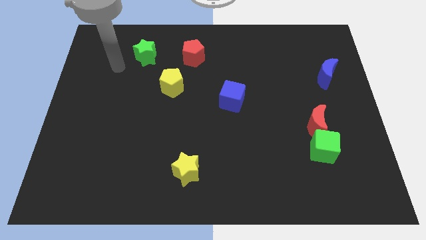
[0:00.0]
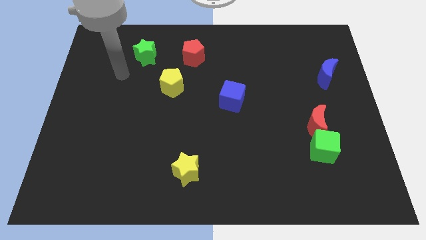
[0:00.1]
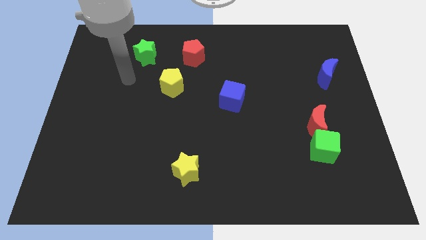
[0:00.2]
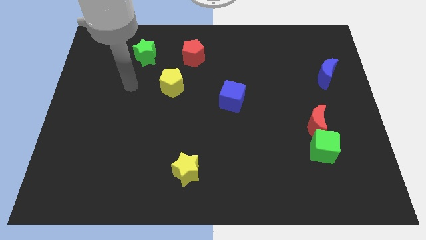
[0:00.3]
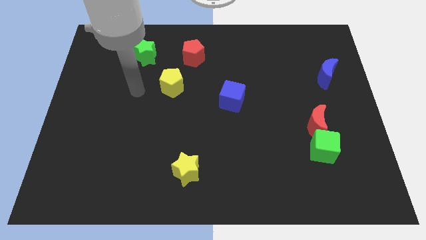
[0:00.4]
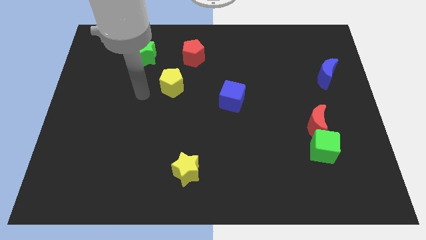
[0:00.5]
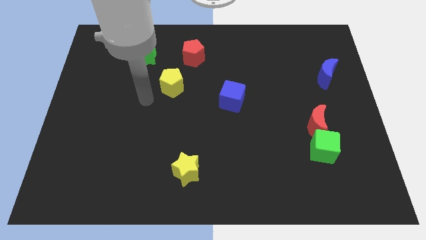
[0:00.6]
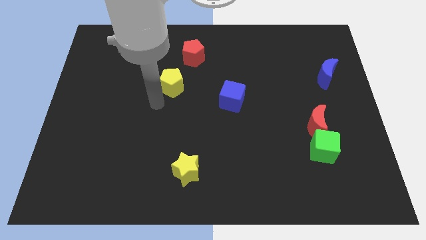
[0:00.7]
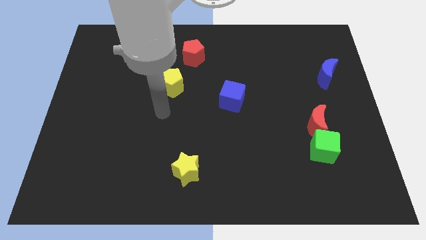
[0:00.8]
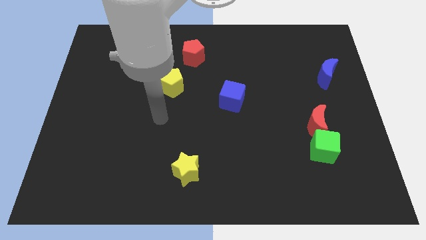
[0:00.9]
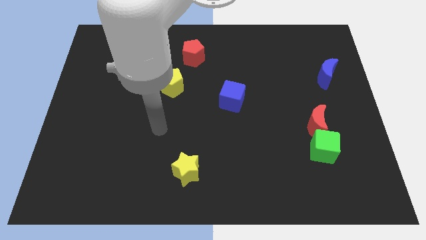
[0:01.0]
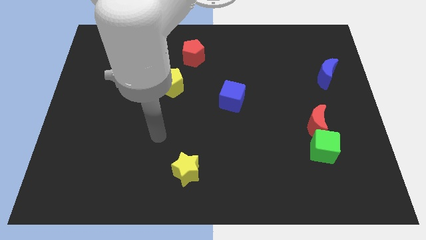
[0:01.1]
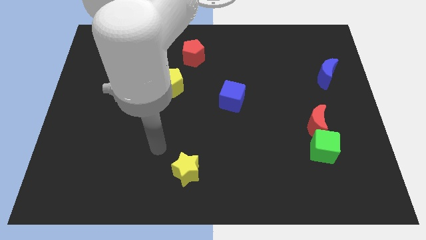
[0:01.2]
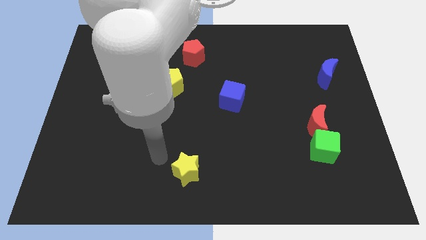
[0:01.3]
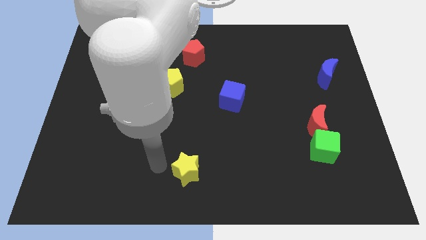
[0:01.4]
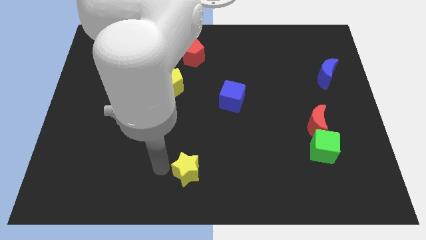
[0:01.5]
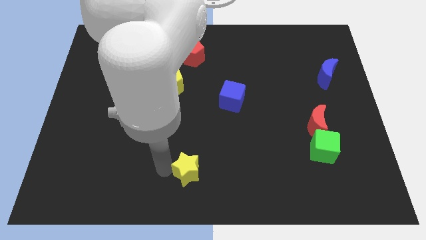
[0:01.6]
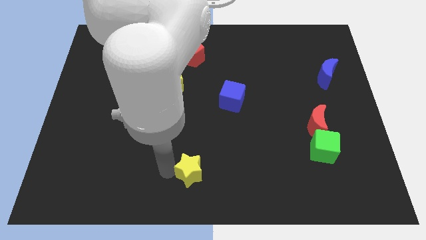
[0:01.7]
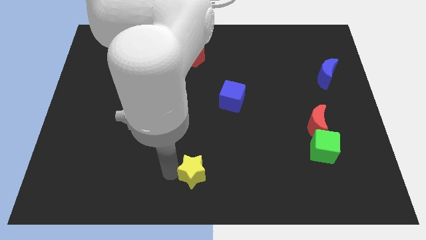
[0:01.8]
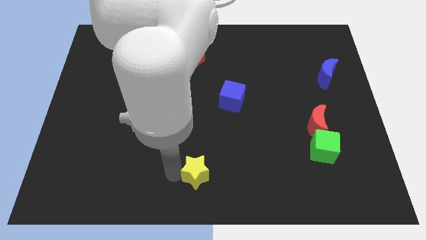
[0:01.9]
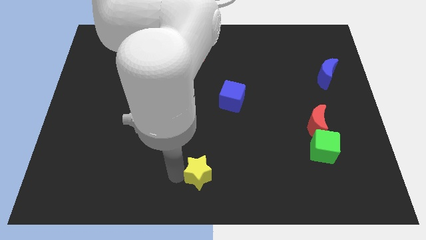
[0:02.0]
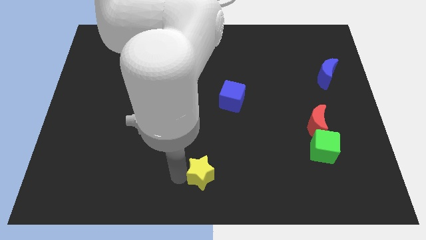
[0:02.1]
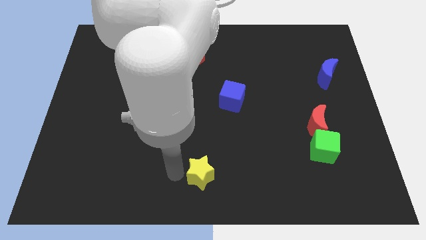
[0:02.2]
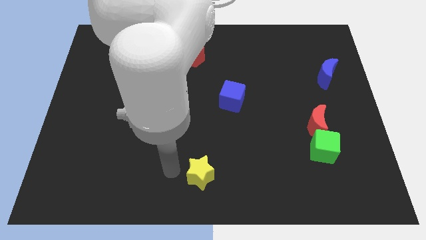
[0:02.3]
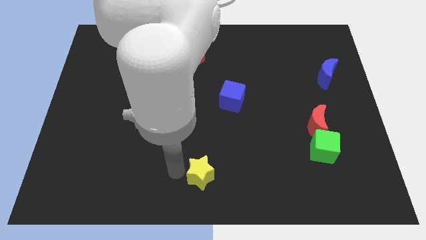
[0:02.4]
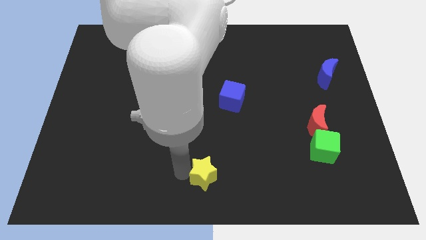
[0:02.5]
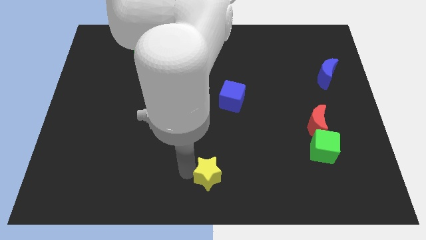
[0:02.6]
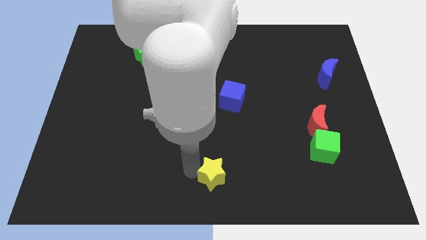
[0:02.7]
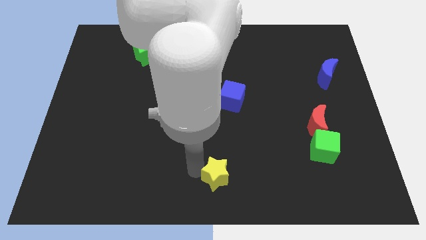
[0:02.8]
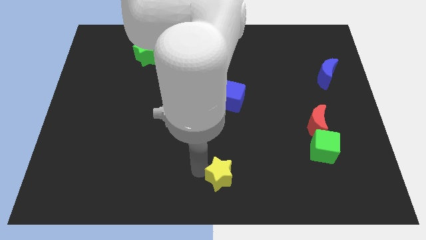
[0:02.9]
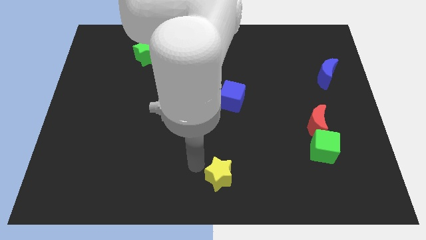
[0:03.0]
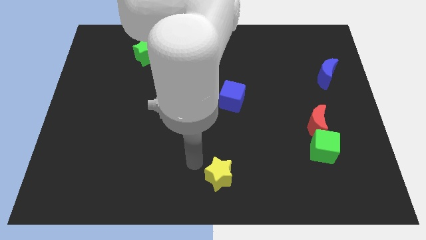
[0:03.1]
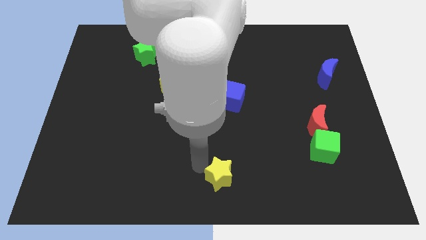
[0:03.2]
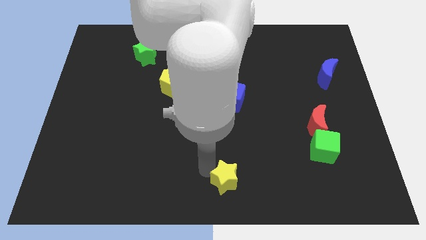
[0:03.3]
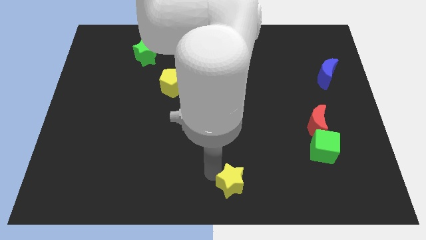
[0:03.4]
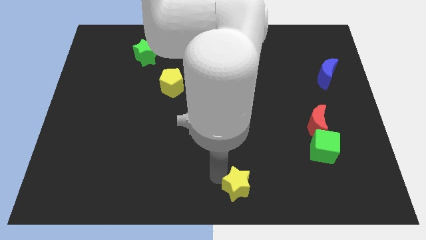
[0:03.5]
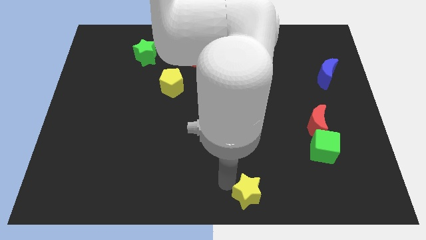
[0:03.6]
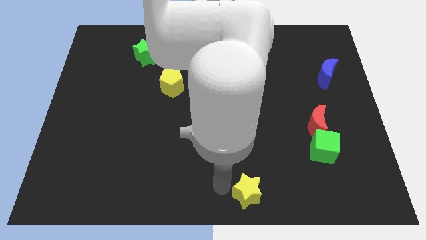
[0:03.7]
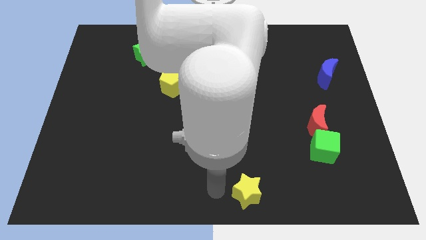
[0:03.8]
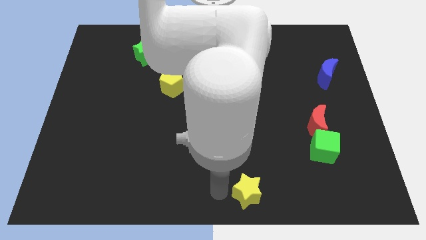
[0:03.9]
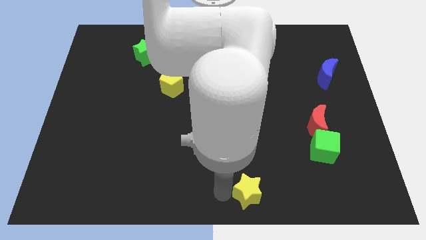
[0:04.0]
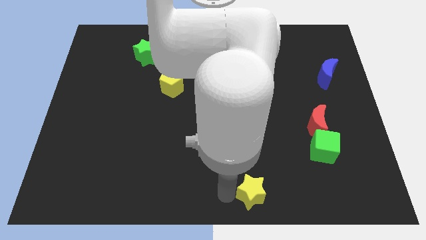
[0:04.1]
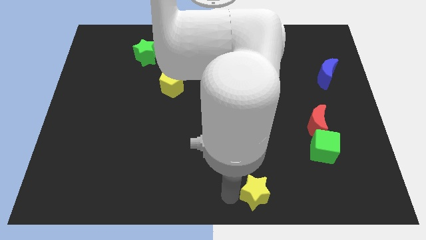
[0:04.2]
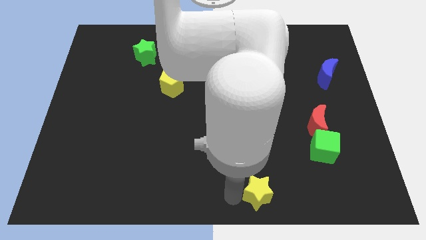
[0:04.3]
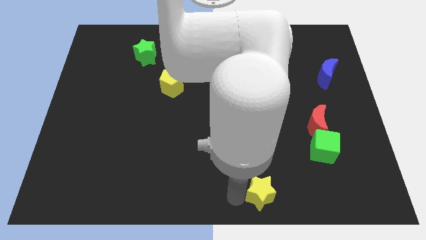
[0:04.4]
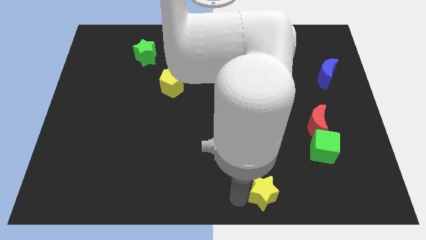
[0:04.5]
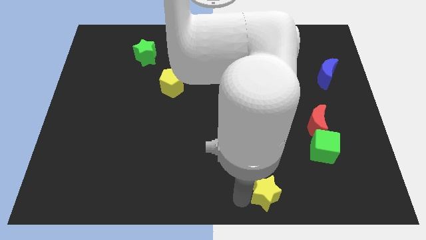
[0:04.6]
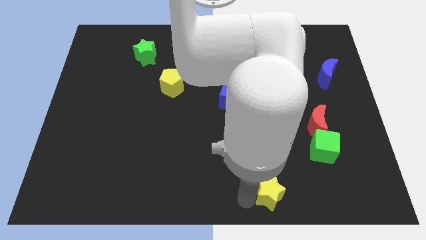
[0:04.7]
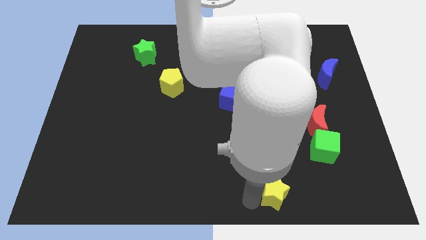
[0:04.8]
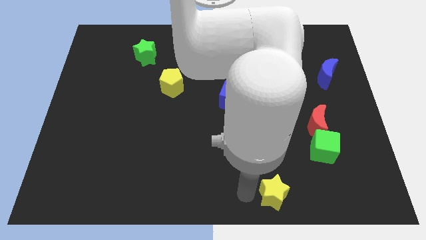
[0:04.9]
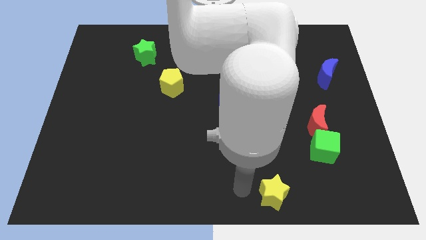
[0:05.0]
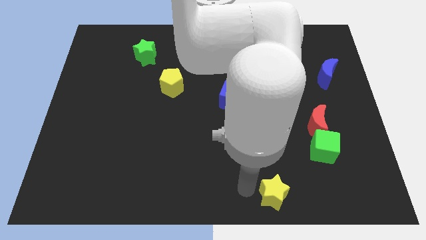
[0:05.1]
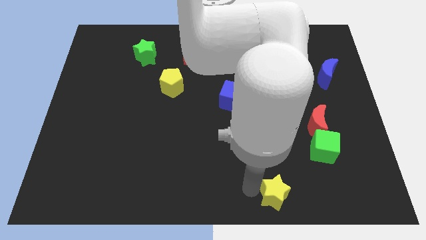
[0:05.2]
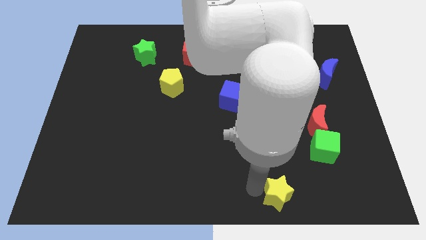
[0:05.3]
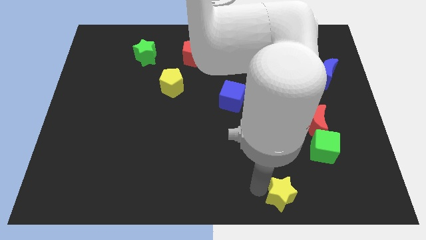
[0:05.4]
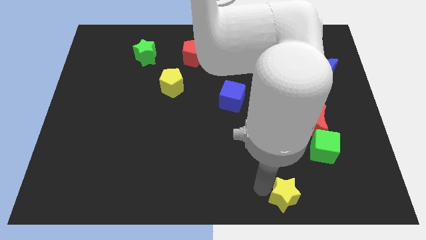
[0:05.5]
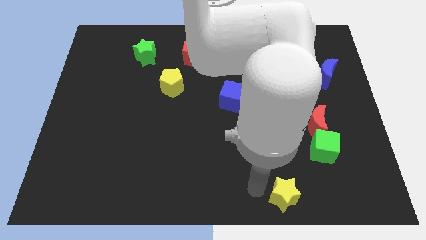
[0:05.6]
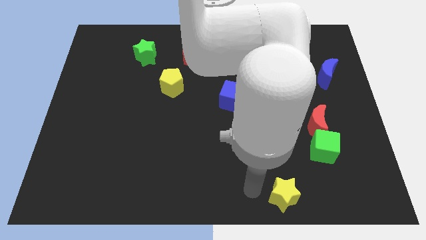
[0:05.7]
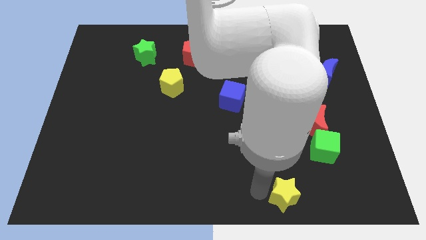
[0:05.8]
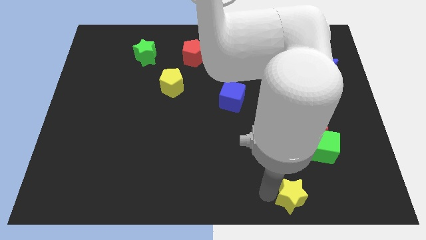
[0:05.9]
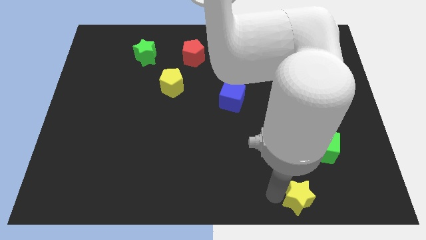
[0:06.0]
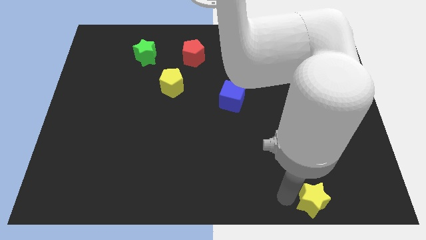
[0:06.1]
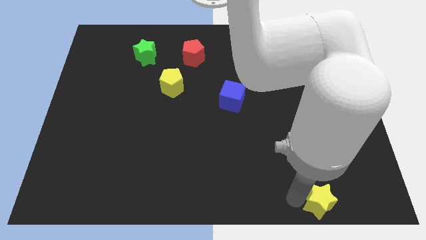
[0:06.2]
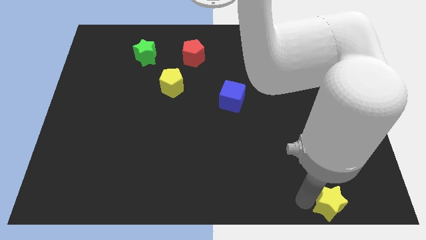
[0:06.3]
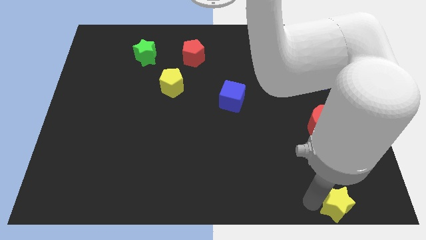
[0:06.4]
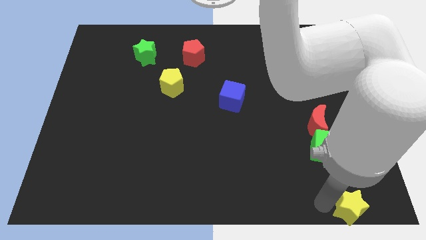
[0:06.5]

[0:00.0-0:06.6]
move the yellow star to the bottom right
